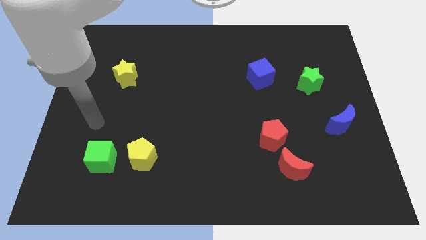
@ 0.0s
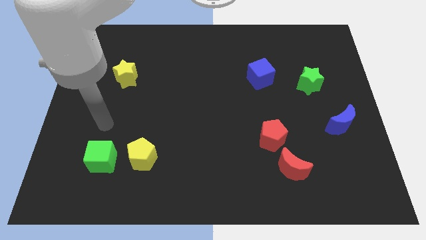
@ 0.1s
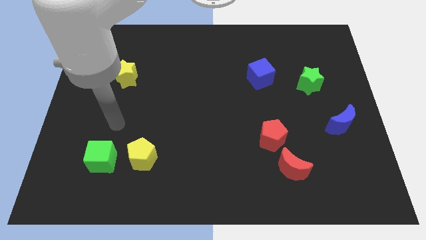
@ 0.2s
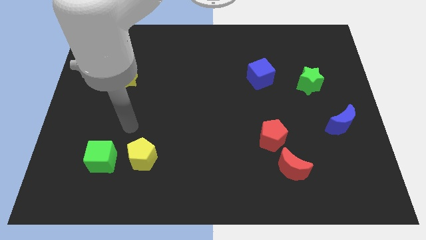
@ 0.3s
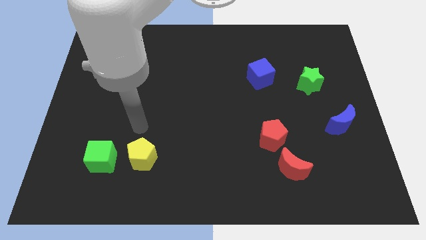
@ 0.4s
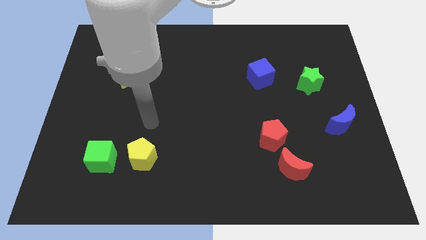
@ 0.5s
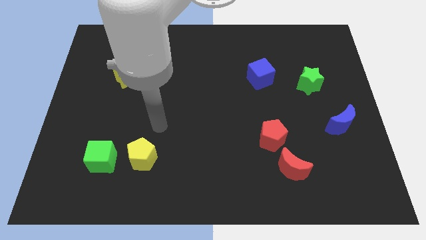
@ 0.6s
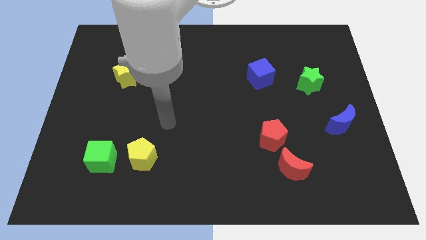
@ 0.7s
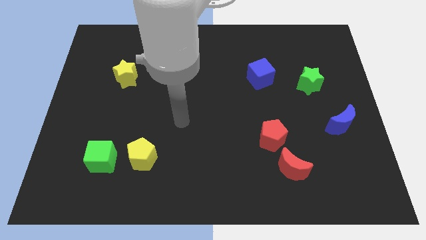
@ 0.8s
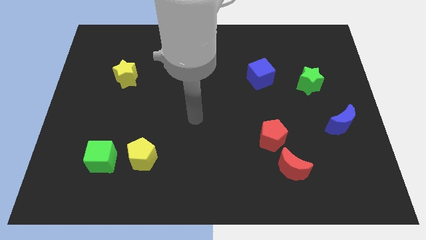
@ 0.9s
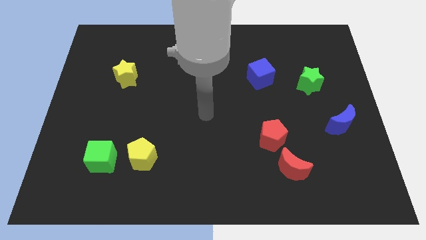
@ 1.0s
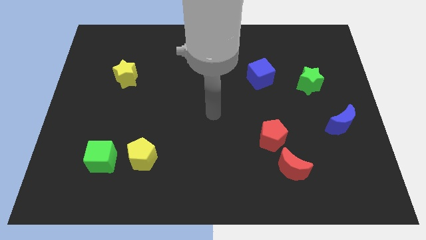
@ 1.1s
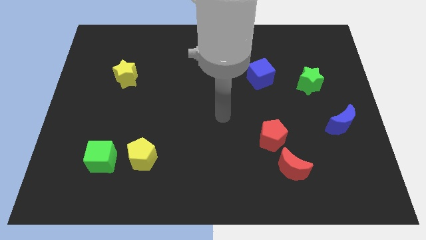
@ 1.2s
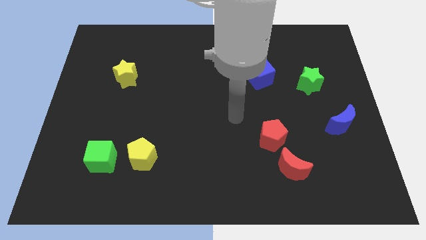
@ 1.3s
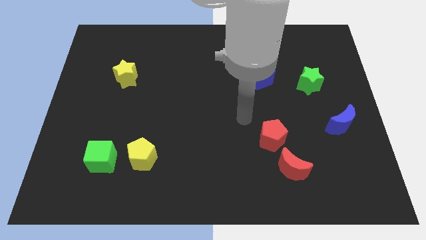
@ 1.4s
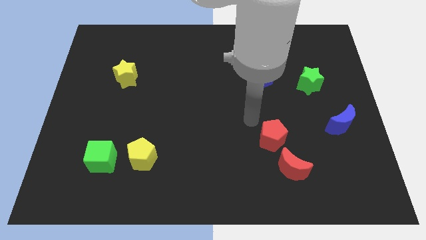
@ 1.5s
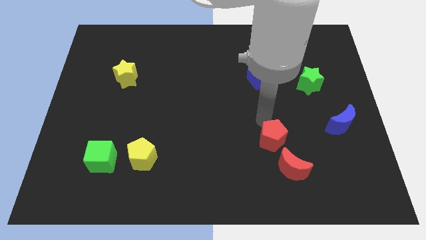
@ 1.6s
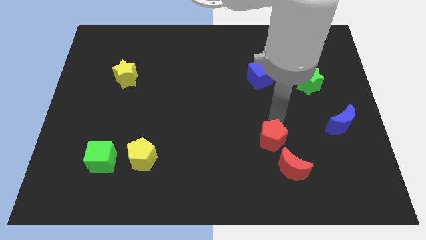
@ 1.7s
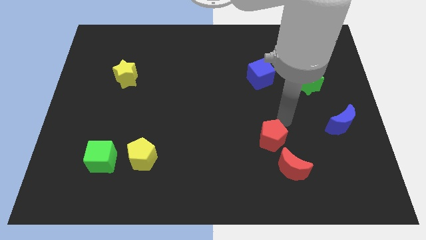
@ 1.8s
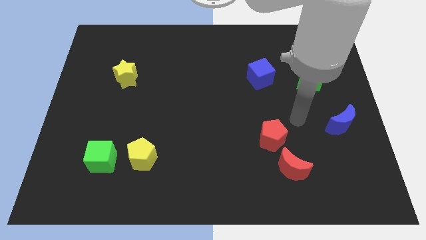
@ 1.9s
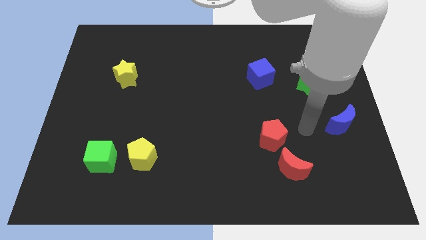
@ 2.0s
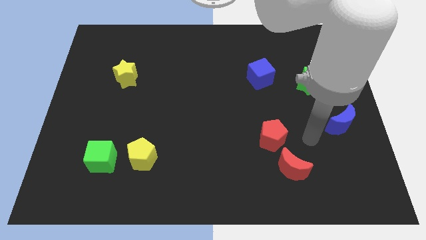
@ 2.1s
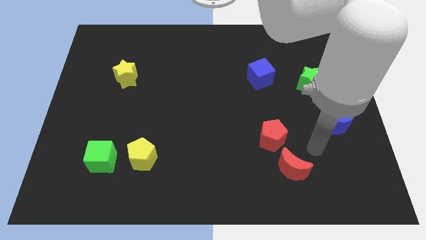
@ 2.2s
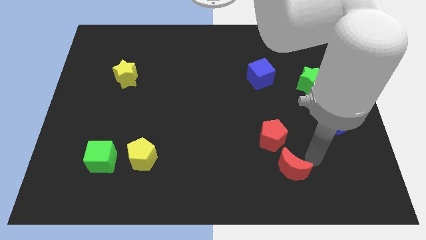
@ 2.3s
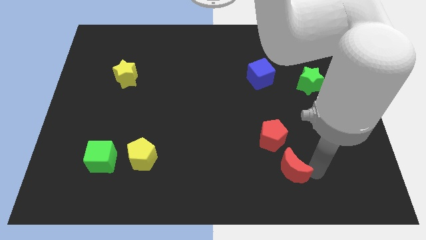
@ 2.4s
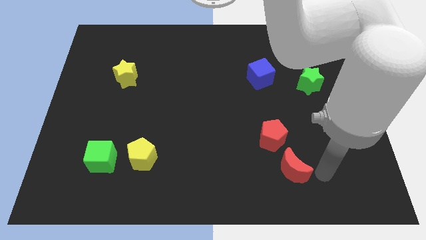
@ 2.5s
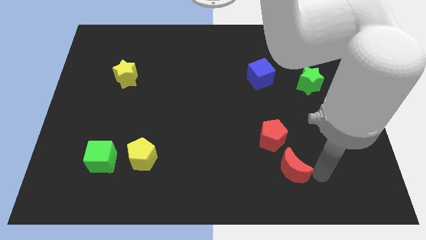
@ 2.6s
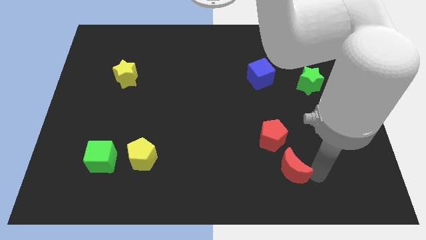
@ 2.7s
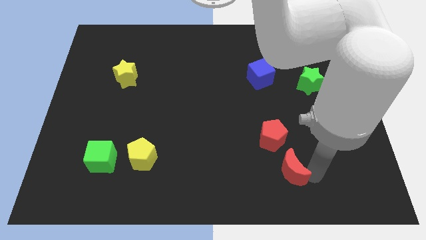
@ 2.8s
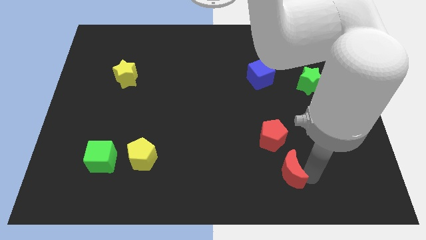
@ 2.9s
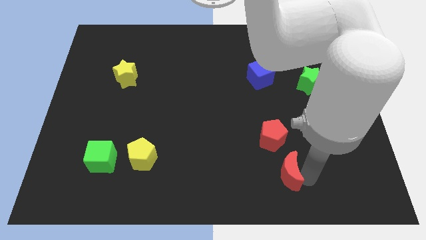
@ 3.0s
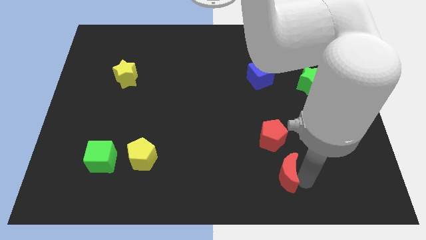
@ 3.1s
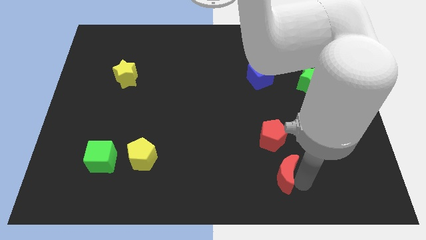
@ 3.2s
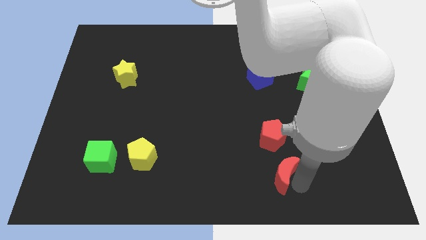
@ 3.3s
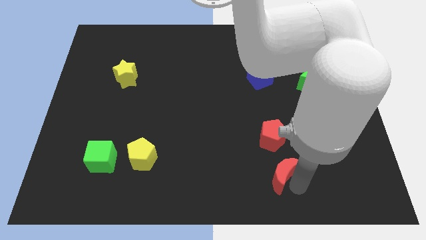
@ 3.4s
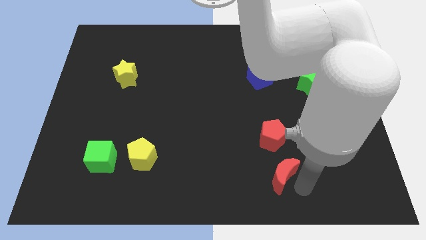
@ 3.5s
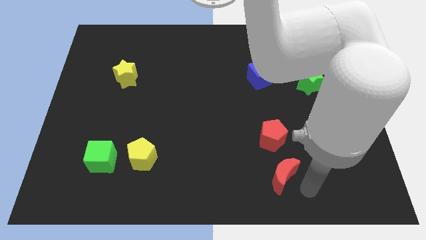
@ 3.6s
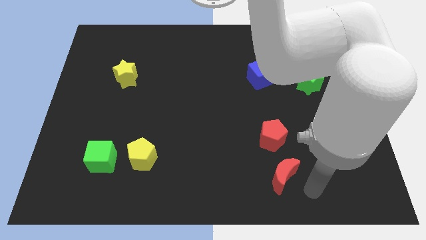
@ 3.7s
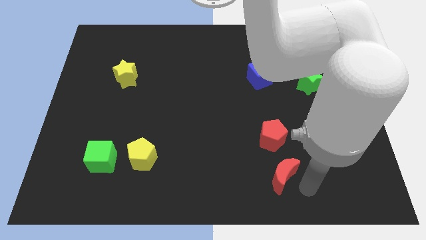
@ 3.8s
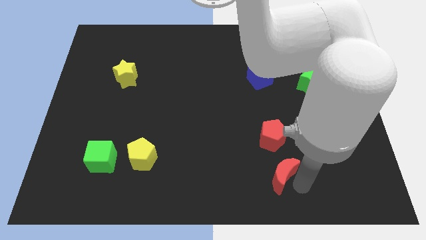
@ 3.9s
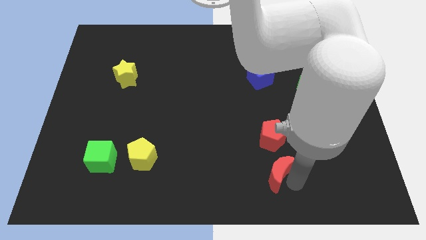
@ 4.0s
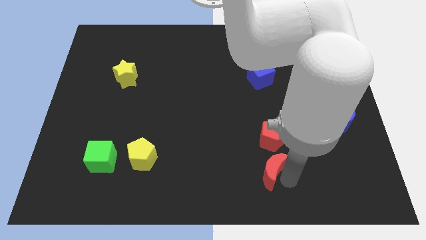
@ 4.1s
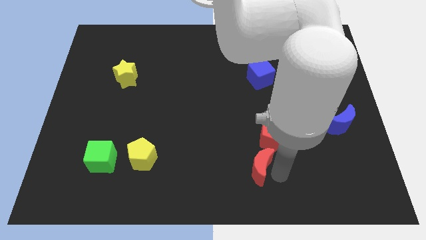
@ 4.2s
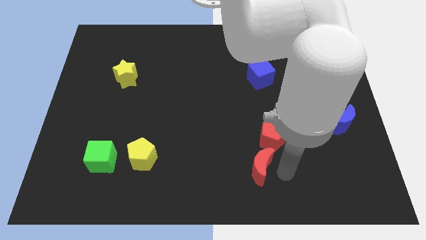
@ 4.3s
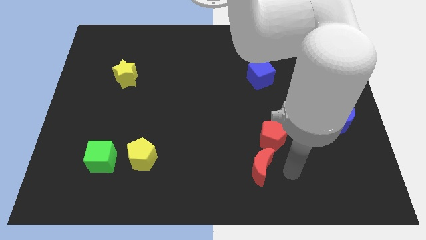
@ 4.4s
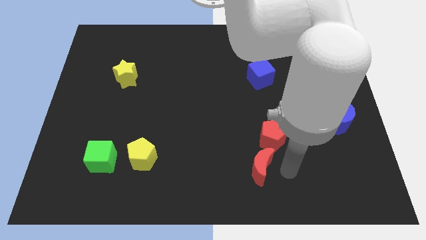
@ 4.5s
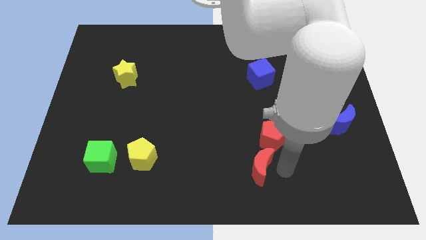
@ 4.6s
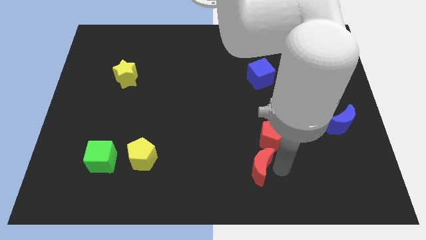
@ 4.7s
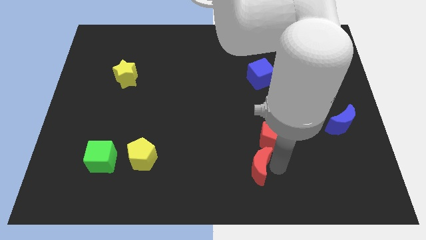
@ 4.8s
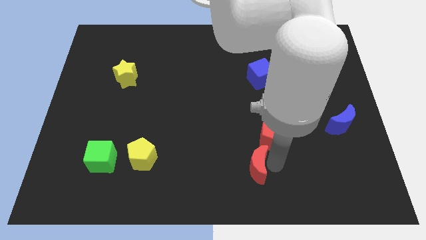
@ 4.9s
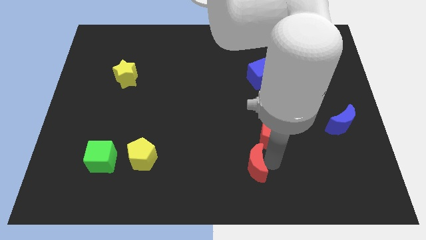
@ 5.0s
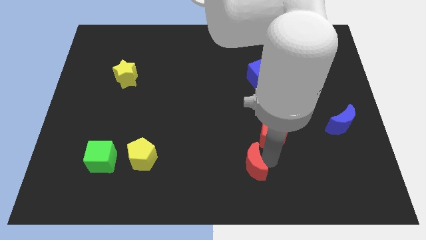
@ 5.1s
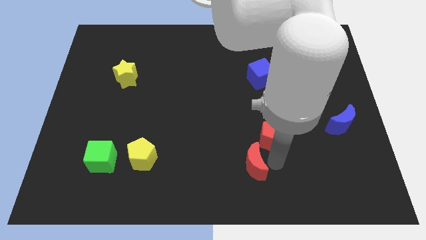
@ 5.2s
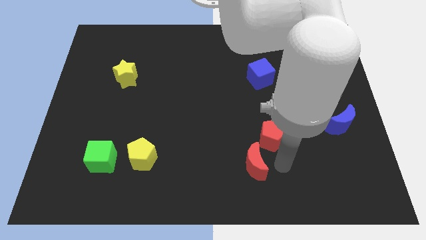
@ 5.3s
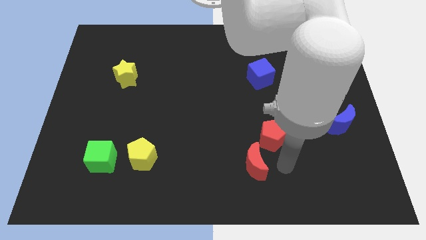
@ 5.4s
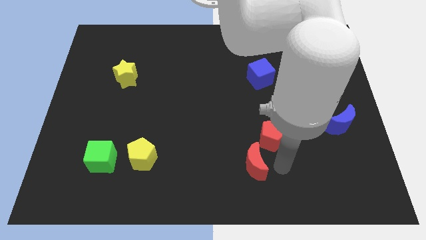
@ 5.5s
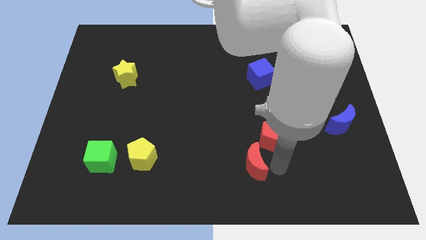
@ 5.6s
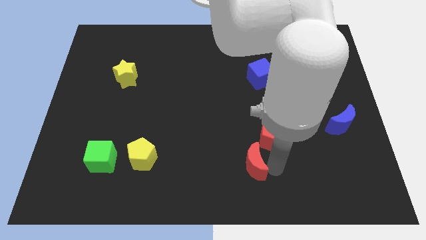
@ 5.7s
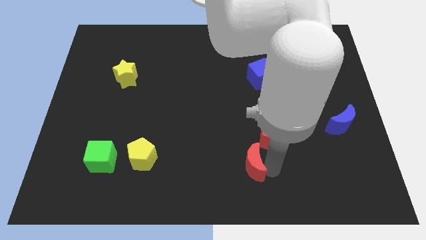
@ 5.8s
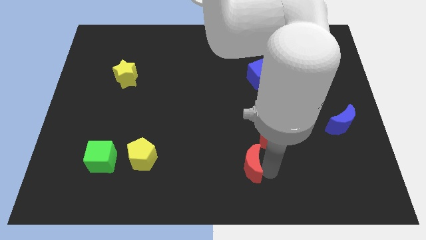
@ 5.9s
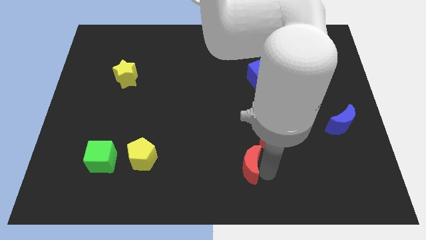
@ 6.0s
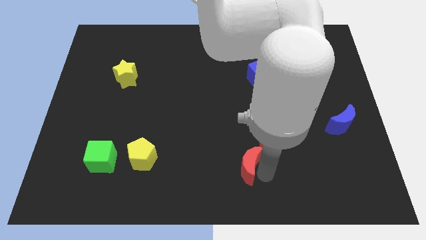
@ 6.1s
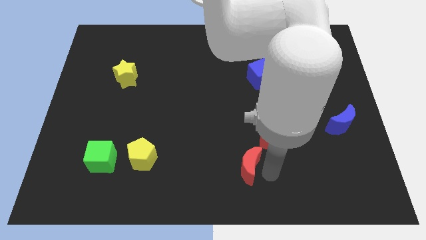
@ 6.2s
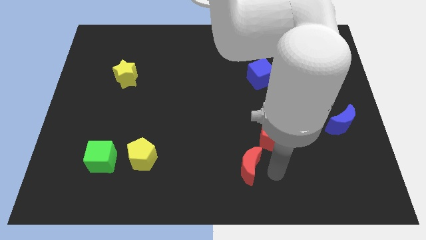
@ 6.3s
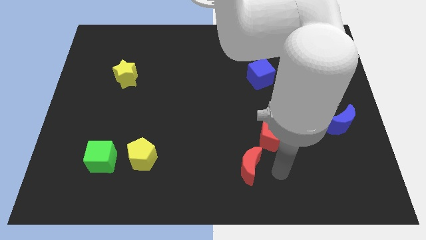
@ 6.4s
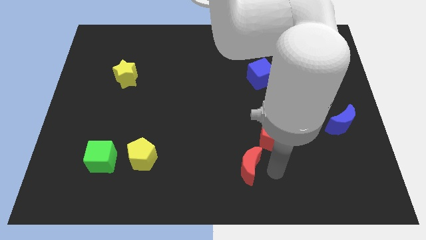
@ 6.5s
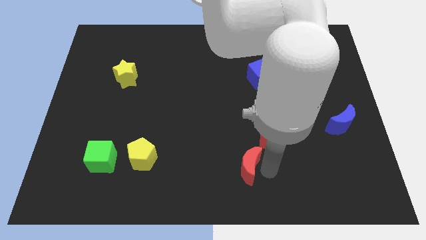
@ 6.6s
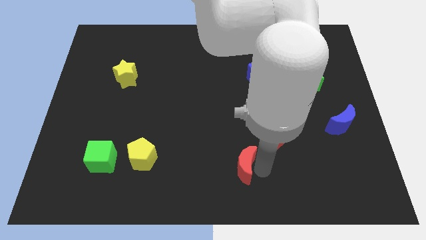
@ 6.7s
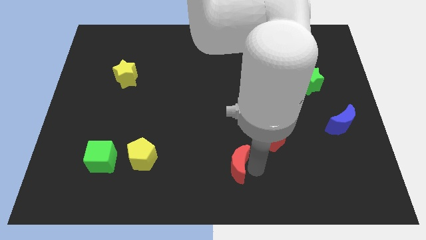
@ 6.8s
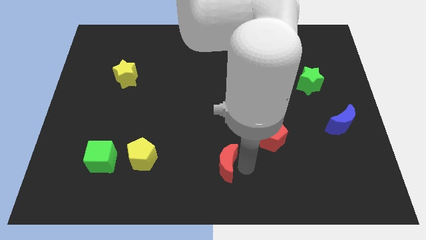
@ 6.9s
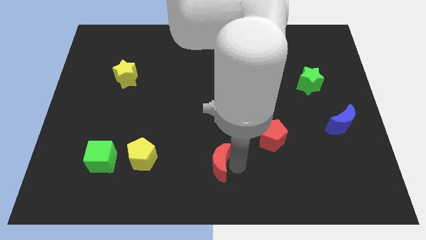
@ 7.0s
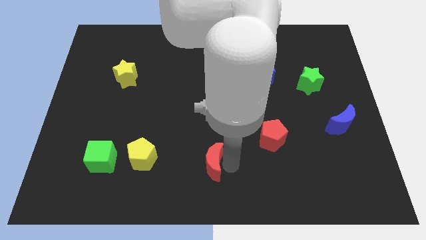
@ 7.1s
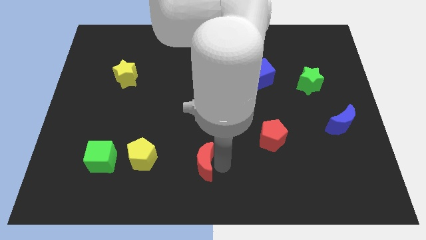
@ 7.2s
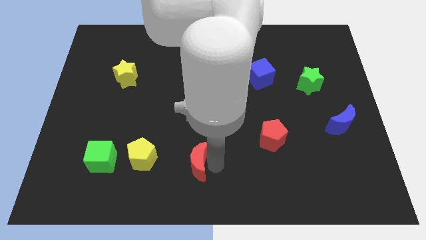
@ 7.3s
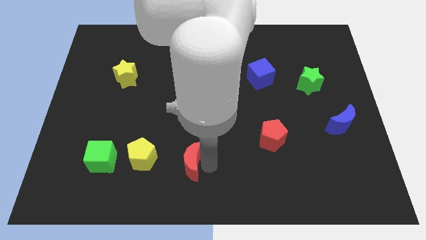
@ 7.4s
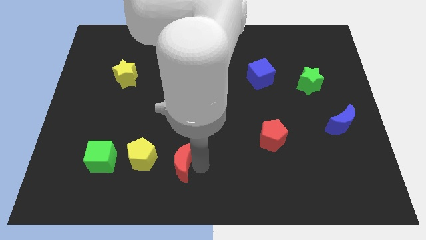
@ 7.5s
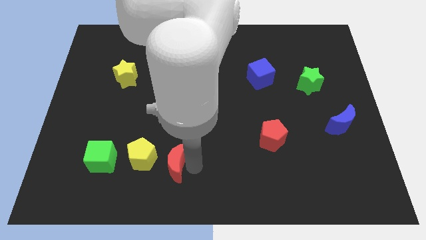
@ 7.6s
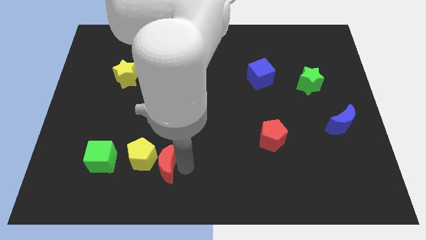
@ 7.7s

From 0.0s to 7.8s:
move the red moon next to the yellow pentagon
